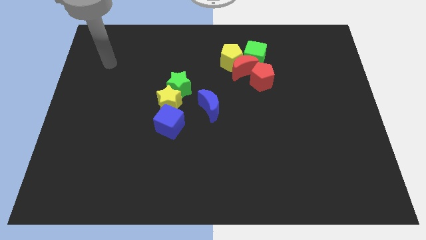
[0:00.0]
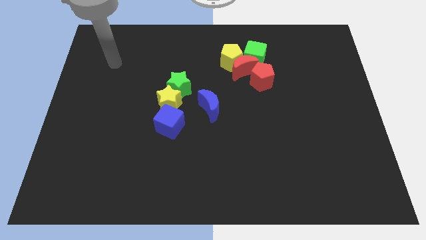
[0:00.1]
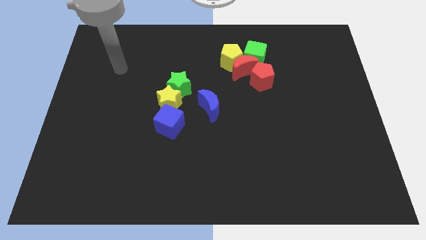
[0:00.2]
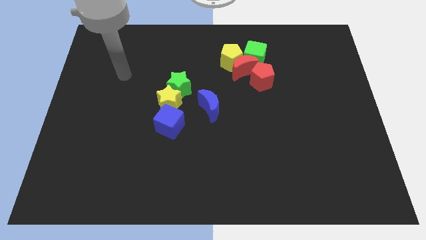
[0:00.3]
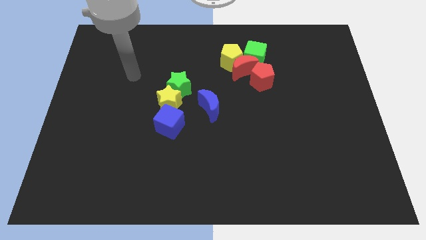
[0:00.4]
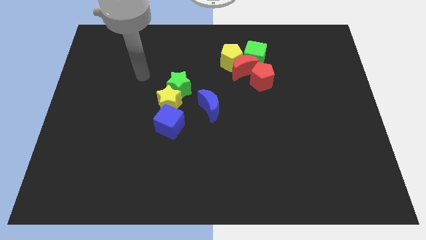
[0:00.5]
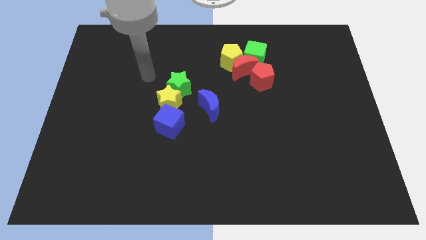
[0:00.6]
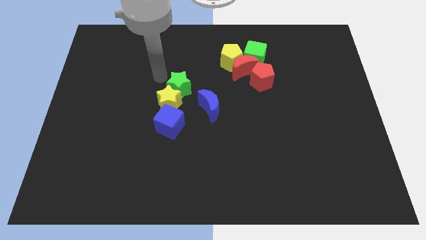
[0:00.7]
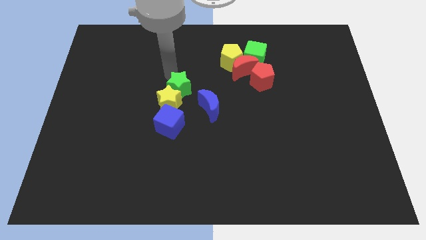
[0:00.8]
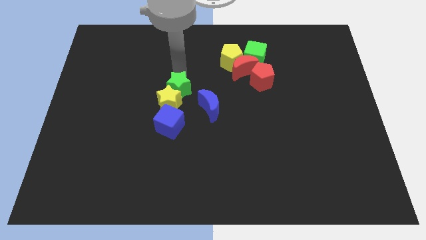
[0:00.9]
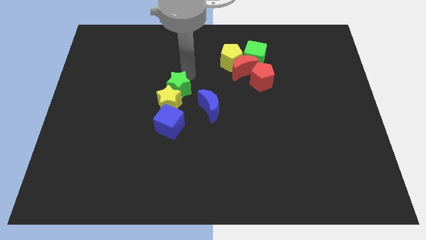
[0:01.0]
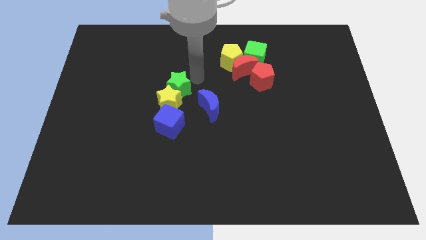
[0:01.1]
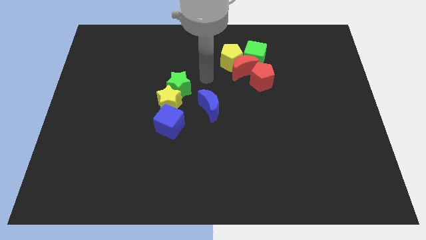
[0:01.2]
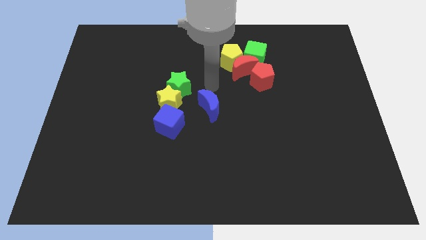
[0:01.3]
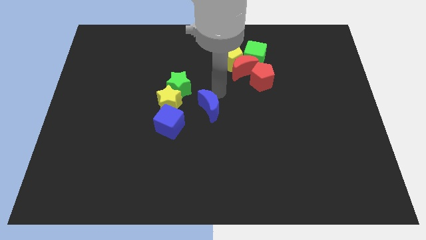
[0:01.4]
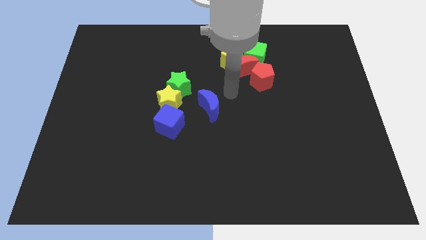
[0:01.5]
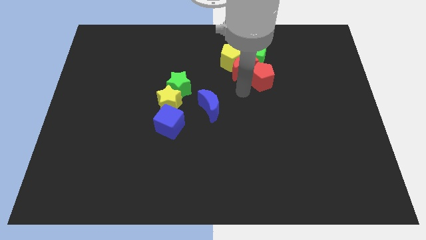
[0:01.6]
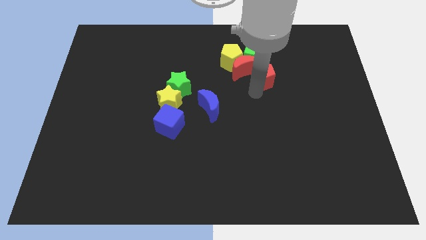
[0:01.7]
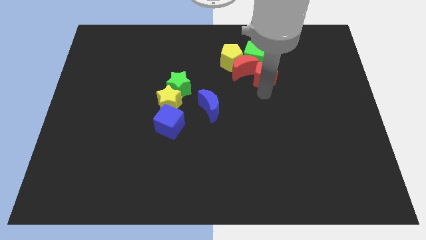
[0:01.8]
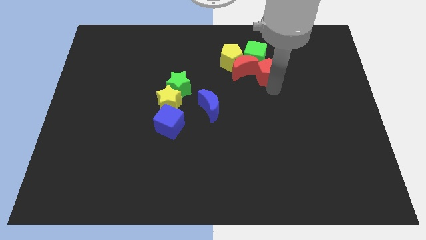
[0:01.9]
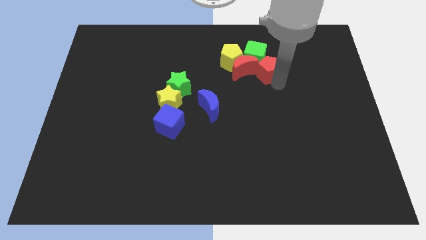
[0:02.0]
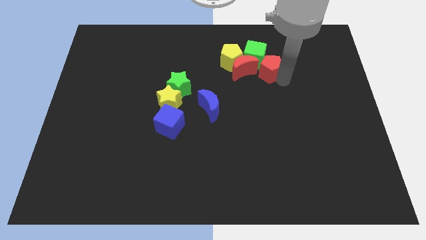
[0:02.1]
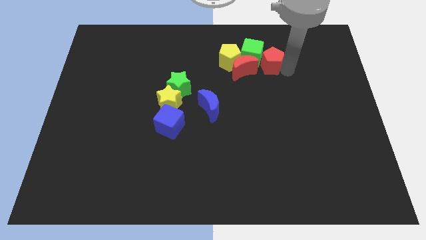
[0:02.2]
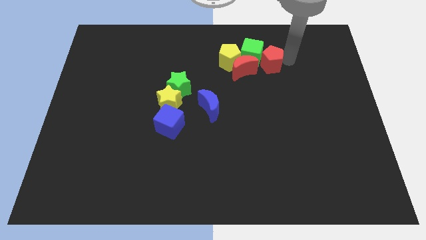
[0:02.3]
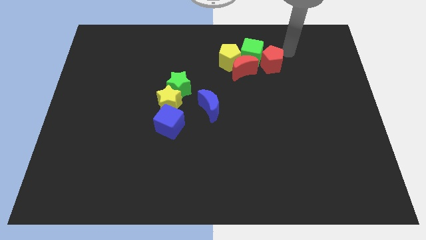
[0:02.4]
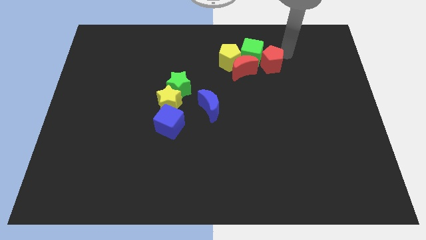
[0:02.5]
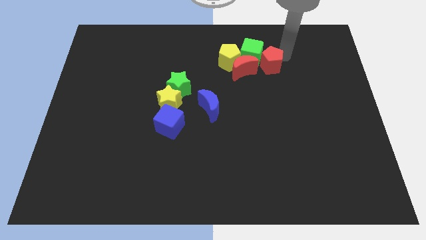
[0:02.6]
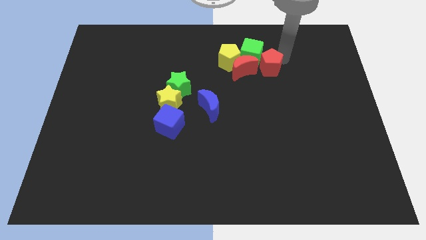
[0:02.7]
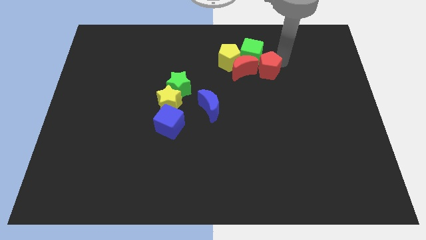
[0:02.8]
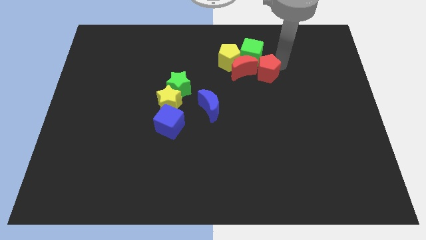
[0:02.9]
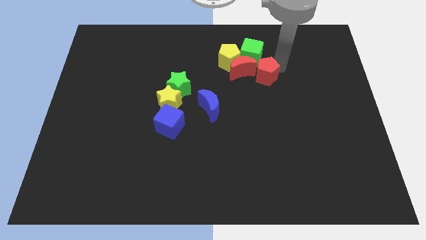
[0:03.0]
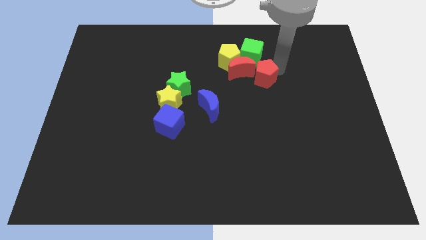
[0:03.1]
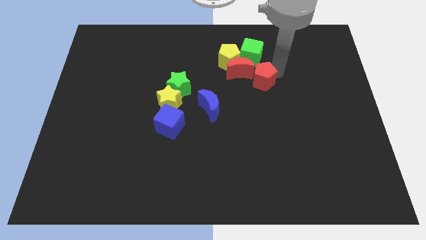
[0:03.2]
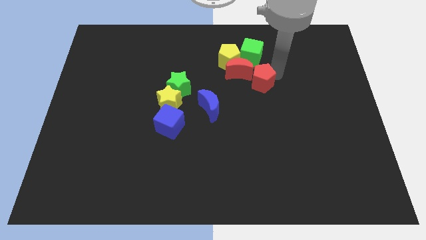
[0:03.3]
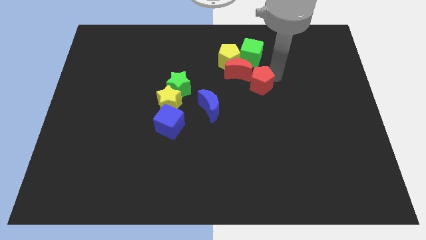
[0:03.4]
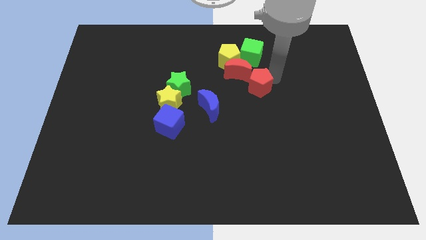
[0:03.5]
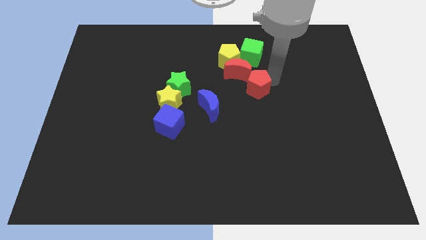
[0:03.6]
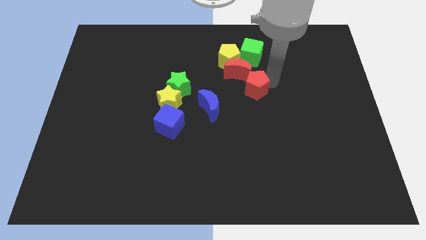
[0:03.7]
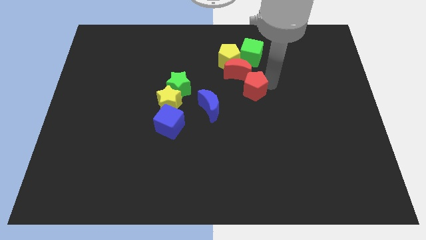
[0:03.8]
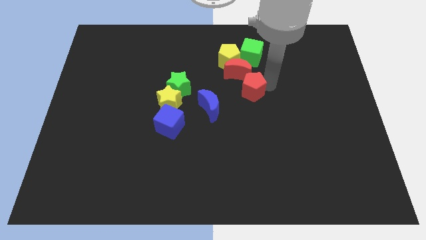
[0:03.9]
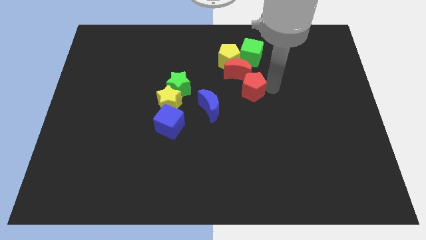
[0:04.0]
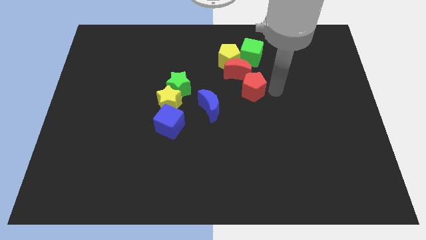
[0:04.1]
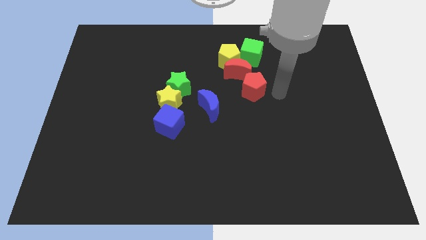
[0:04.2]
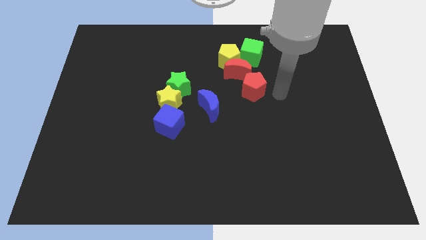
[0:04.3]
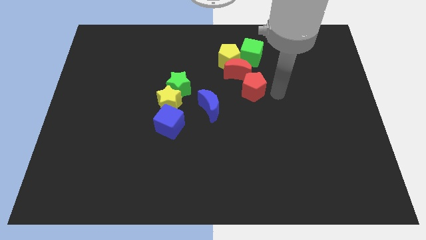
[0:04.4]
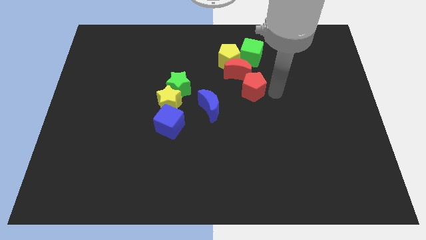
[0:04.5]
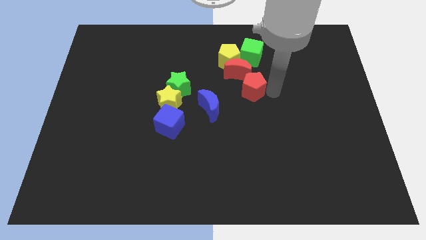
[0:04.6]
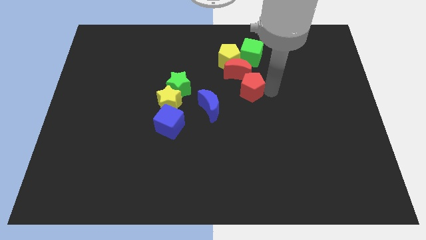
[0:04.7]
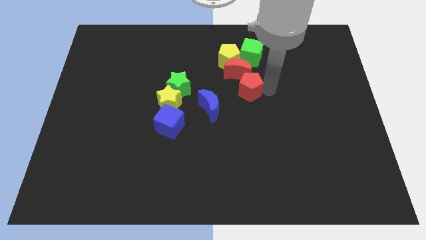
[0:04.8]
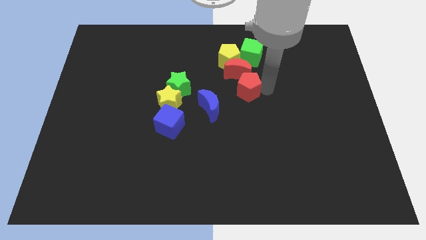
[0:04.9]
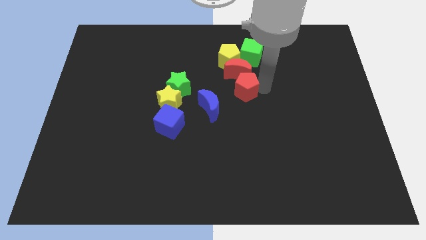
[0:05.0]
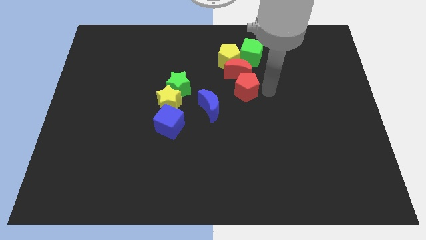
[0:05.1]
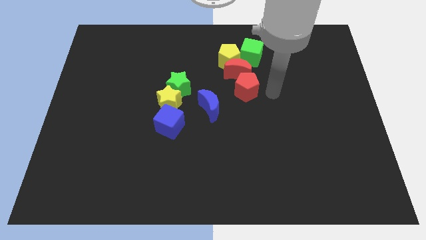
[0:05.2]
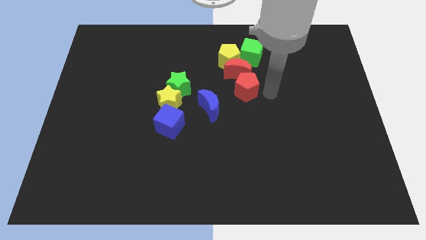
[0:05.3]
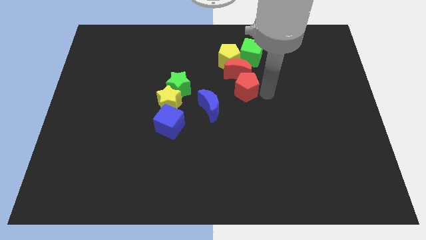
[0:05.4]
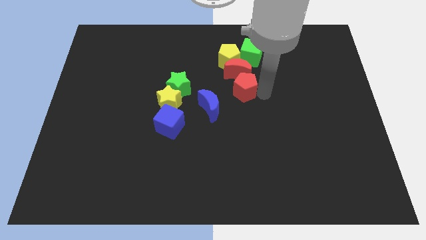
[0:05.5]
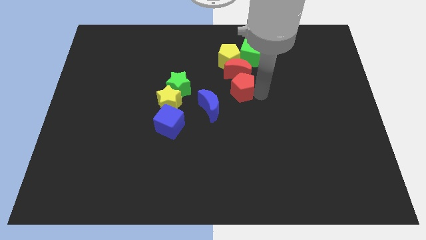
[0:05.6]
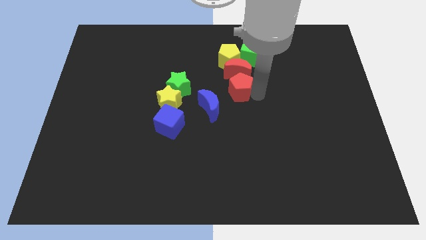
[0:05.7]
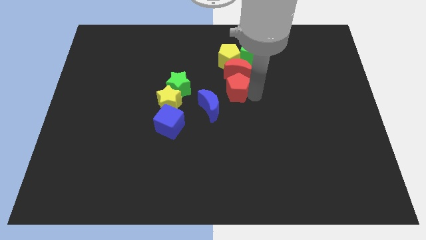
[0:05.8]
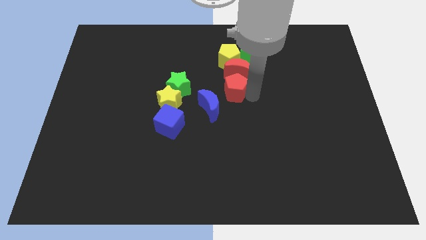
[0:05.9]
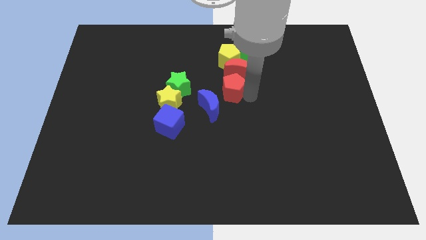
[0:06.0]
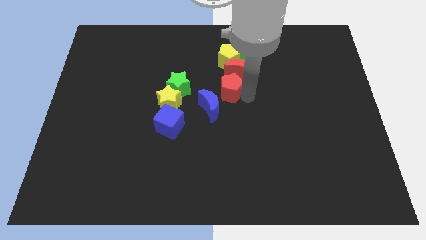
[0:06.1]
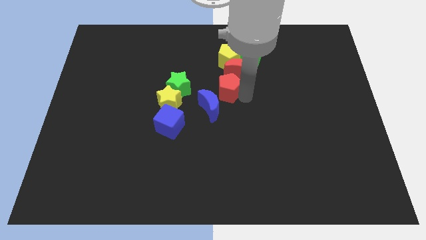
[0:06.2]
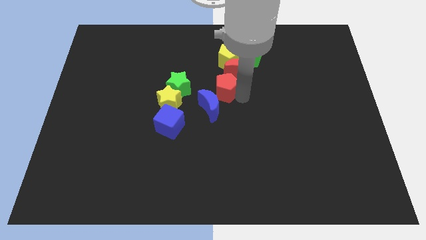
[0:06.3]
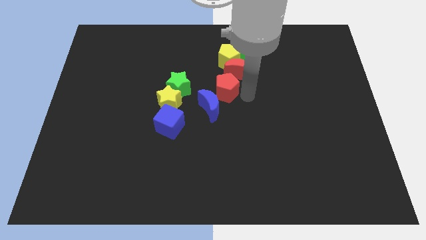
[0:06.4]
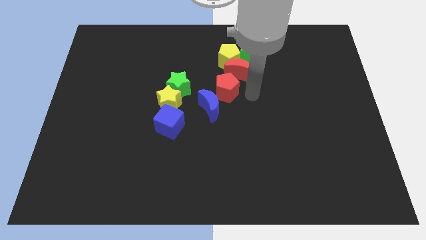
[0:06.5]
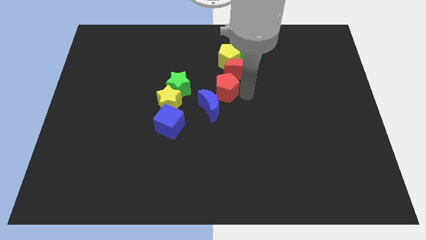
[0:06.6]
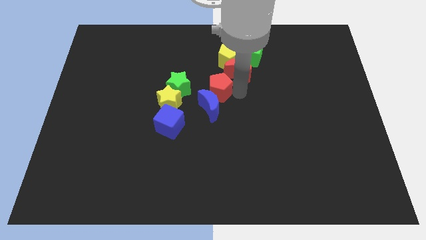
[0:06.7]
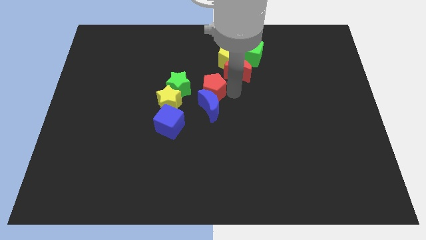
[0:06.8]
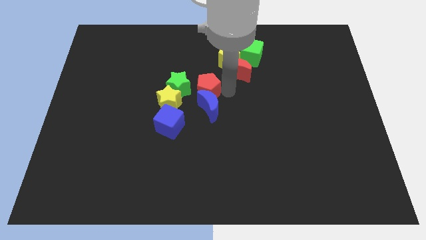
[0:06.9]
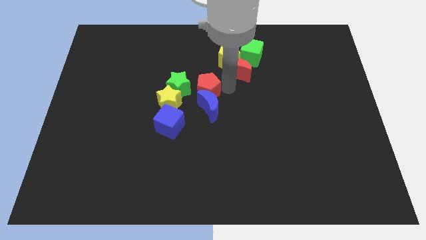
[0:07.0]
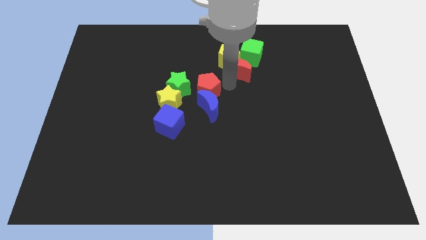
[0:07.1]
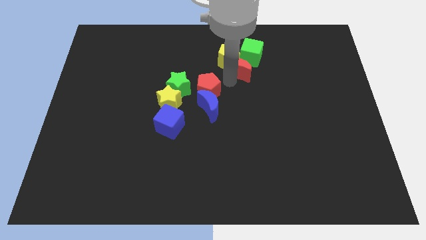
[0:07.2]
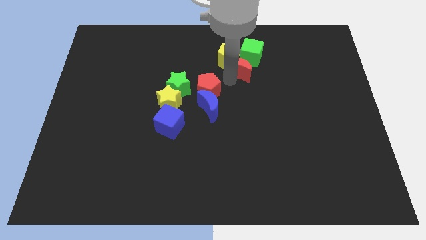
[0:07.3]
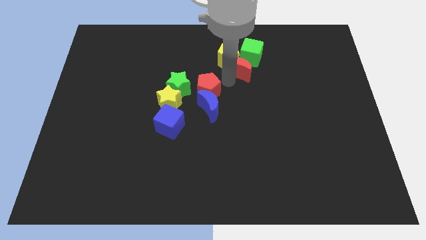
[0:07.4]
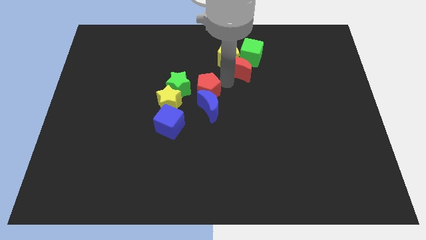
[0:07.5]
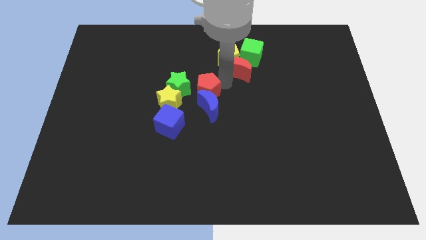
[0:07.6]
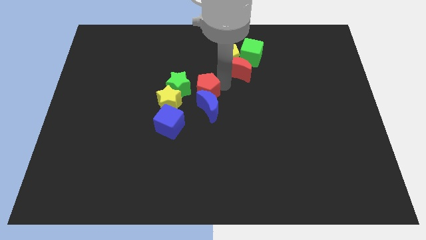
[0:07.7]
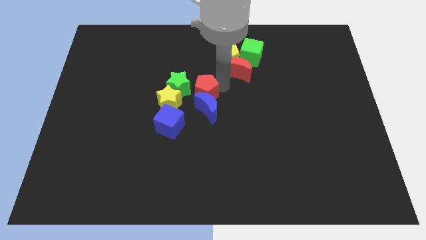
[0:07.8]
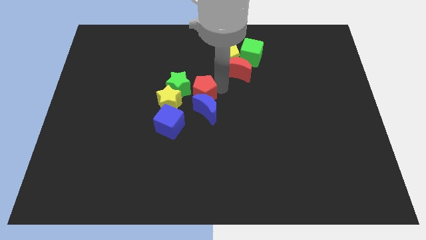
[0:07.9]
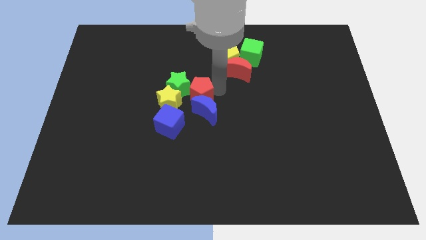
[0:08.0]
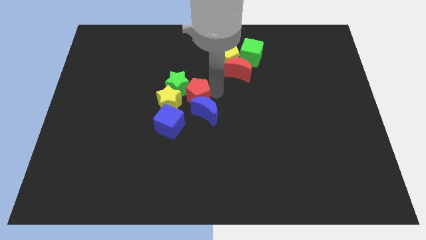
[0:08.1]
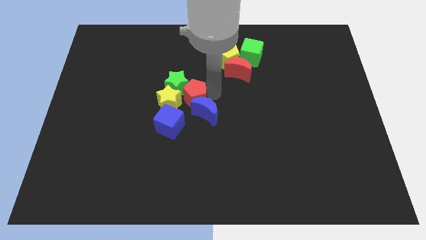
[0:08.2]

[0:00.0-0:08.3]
put the red pentagon next to the yellow star
